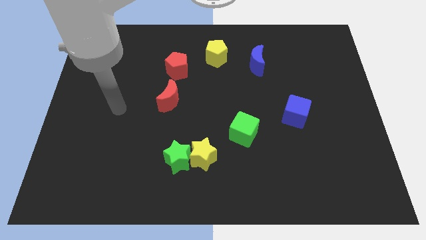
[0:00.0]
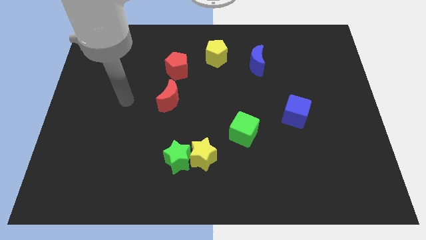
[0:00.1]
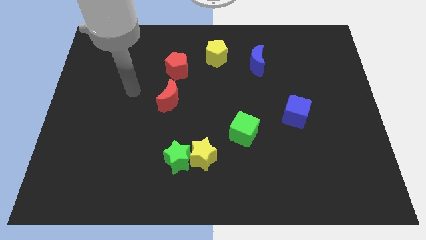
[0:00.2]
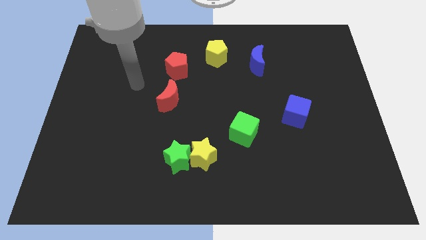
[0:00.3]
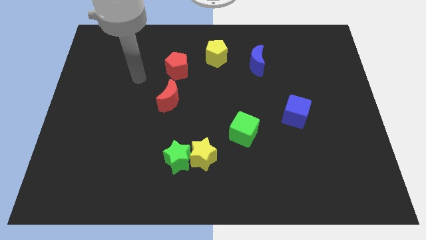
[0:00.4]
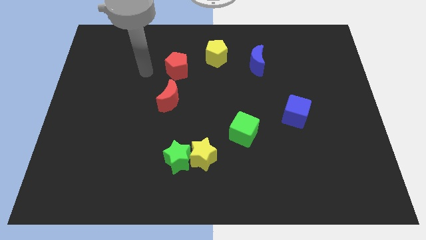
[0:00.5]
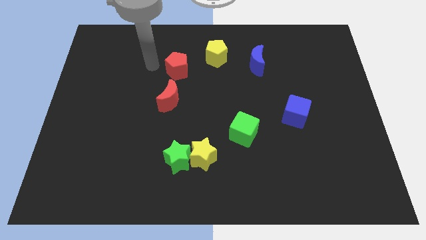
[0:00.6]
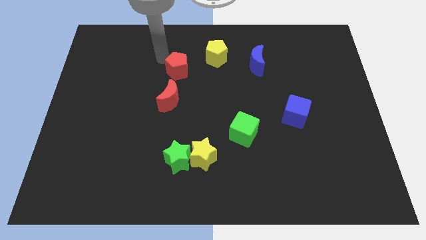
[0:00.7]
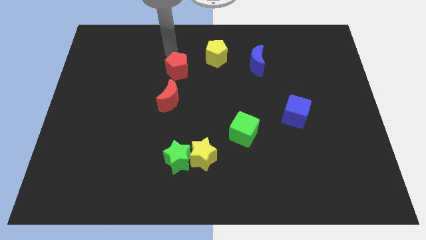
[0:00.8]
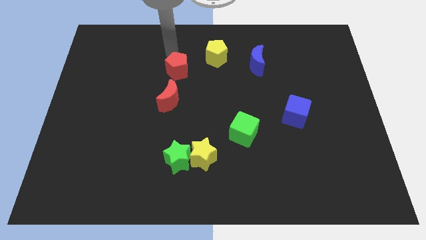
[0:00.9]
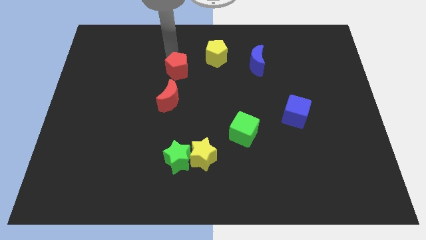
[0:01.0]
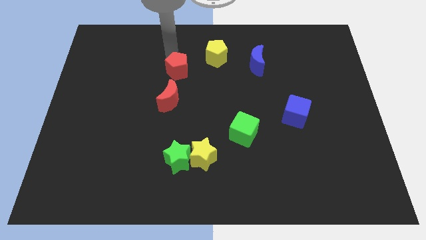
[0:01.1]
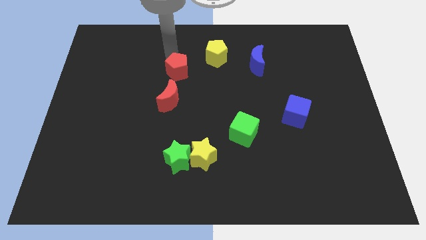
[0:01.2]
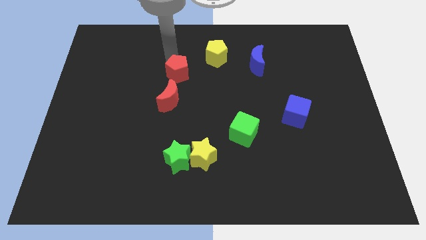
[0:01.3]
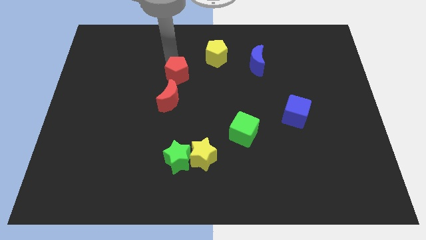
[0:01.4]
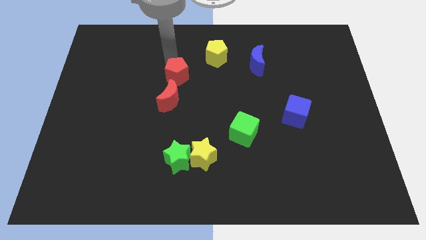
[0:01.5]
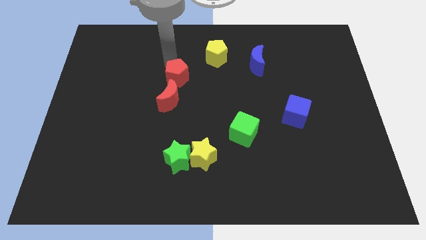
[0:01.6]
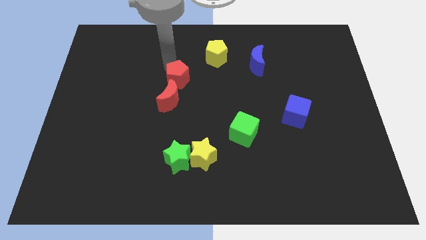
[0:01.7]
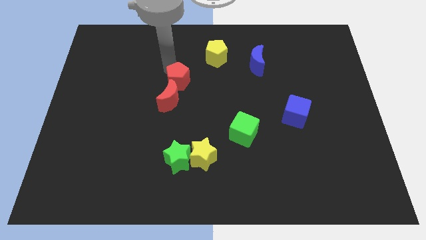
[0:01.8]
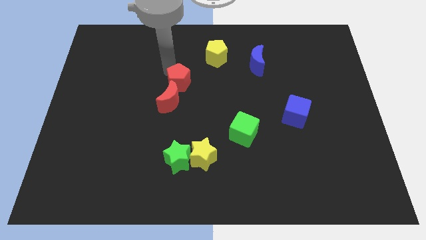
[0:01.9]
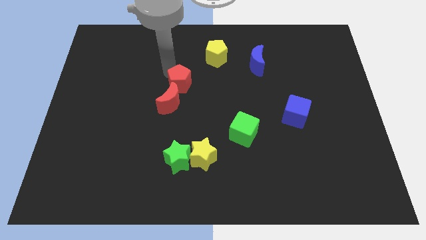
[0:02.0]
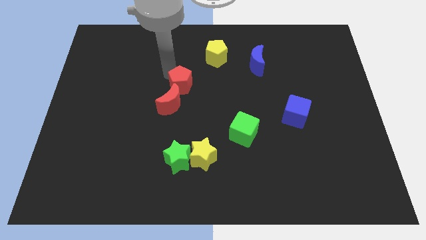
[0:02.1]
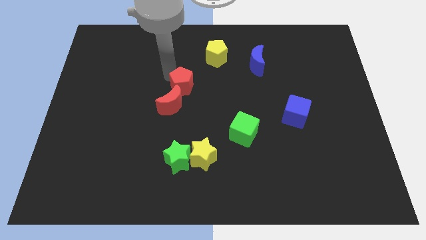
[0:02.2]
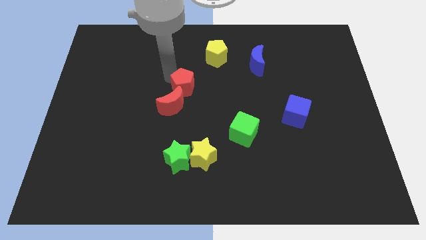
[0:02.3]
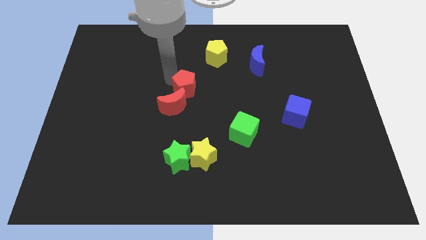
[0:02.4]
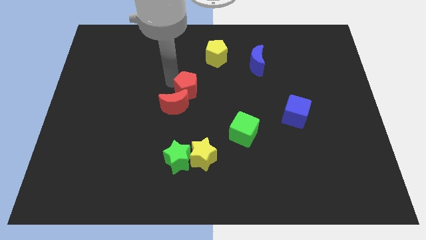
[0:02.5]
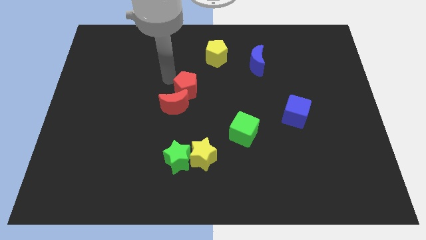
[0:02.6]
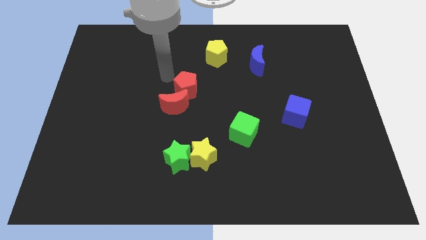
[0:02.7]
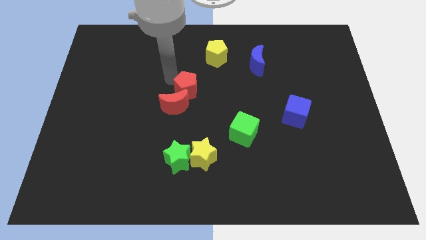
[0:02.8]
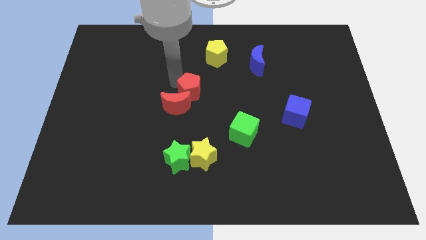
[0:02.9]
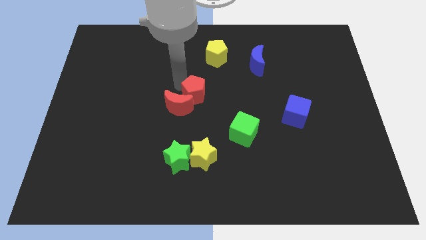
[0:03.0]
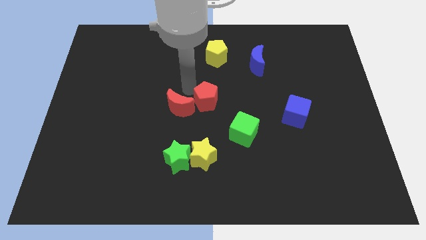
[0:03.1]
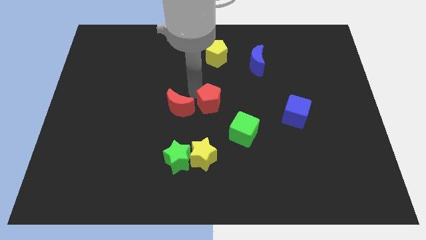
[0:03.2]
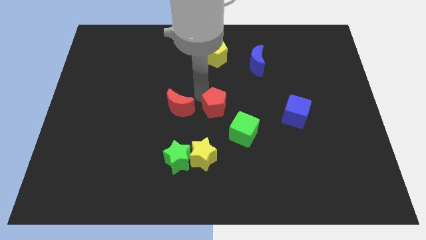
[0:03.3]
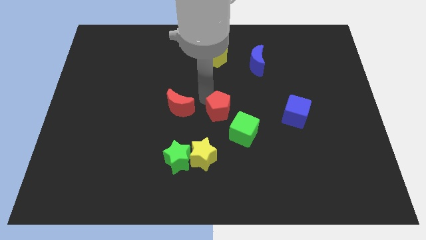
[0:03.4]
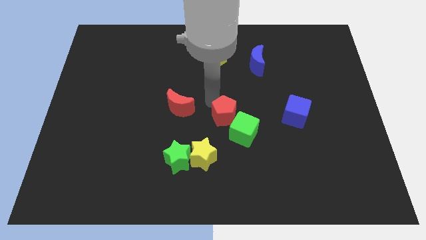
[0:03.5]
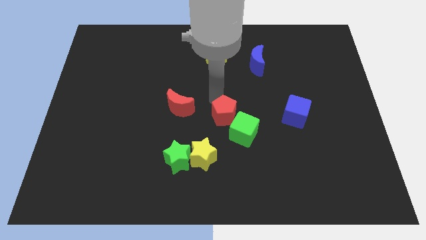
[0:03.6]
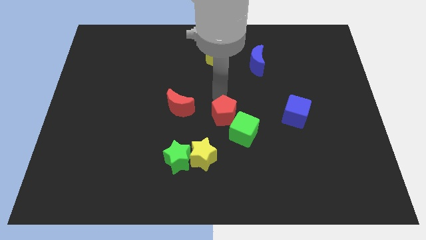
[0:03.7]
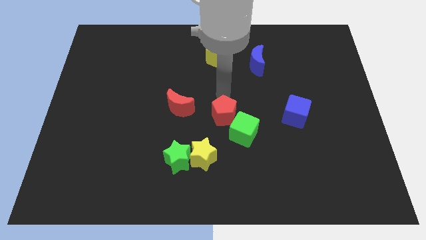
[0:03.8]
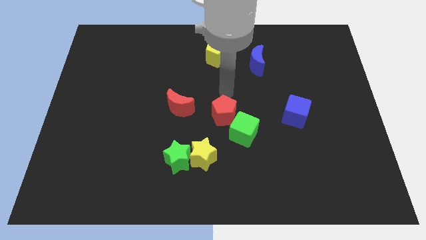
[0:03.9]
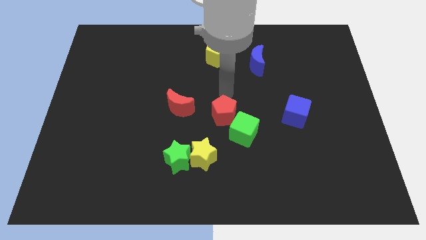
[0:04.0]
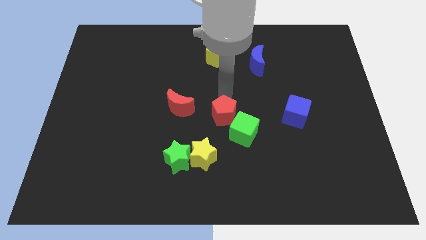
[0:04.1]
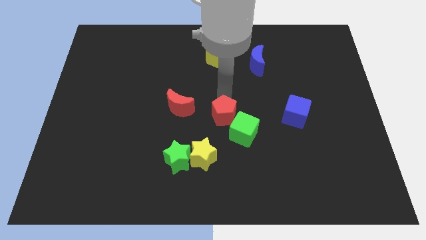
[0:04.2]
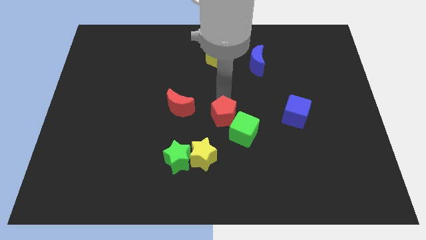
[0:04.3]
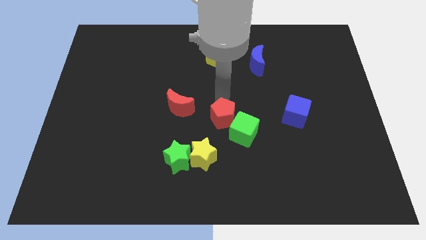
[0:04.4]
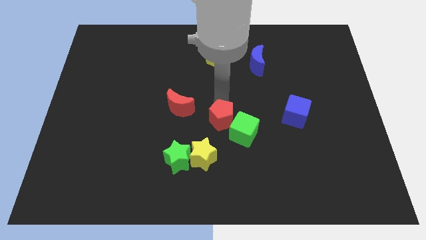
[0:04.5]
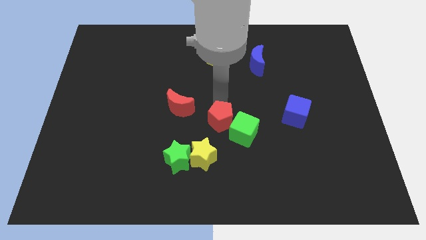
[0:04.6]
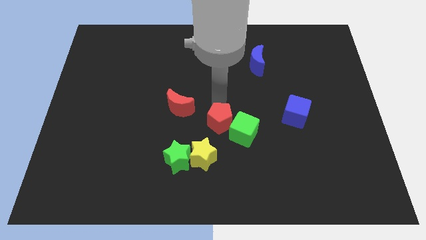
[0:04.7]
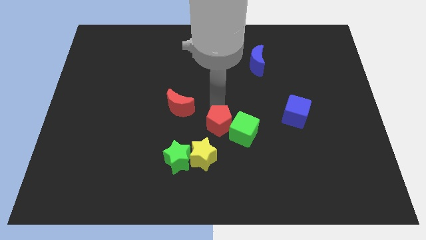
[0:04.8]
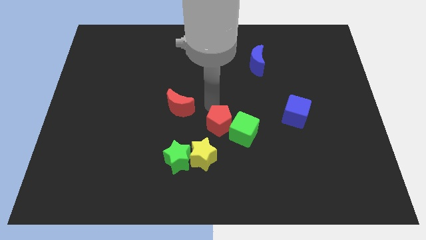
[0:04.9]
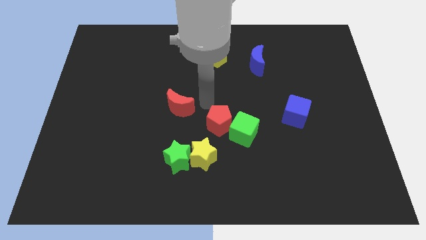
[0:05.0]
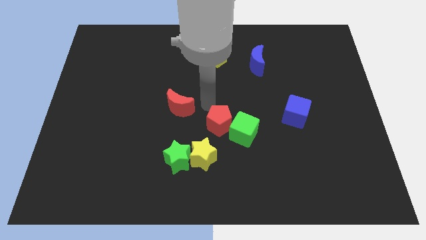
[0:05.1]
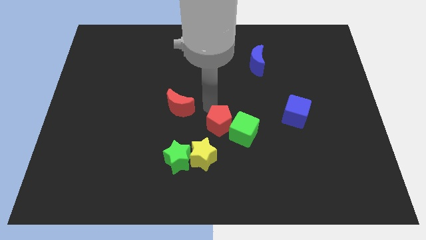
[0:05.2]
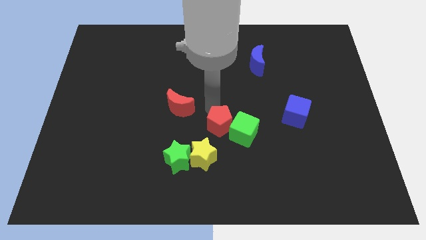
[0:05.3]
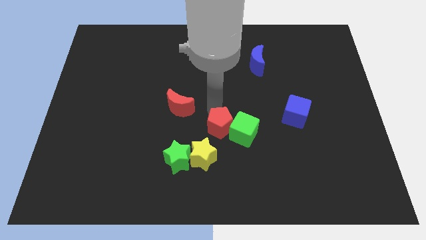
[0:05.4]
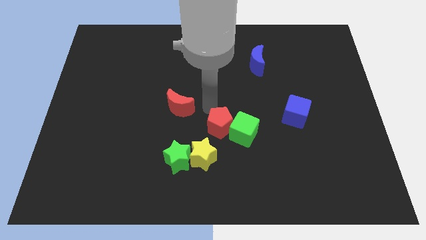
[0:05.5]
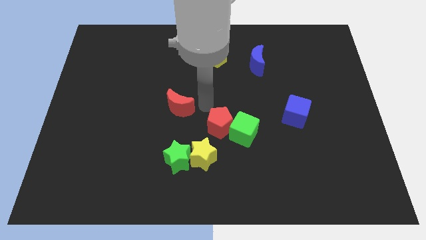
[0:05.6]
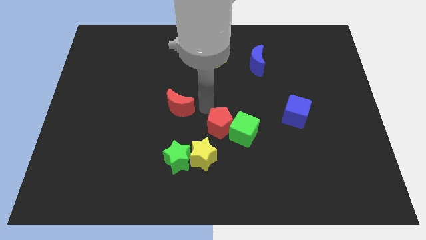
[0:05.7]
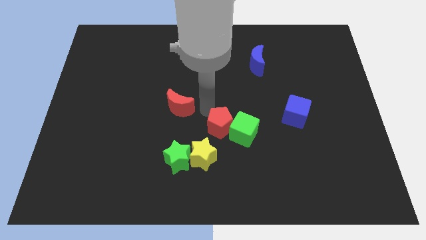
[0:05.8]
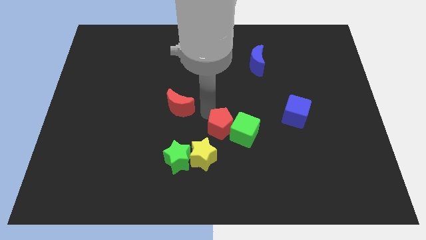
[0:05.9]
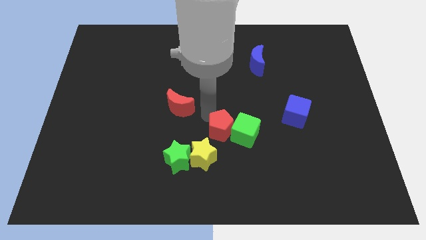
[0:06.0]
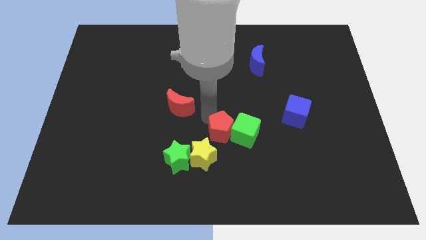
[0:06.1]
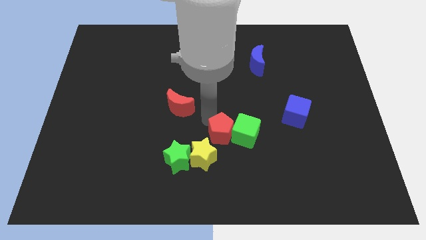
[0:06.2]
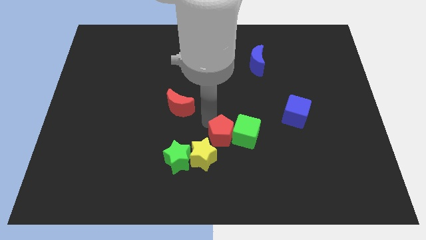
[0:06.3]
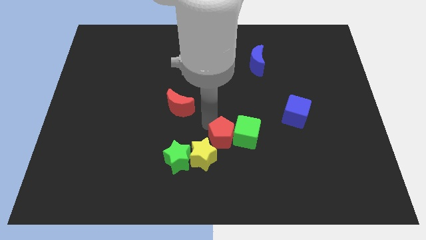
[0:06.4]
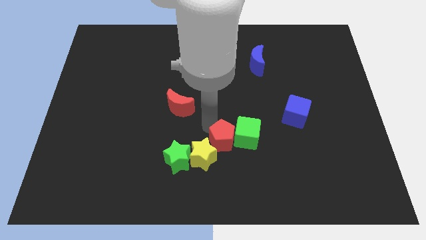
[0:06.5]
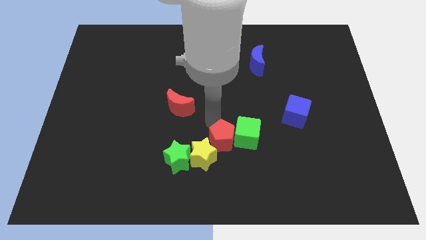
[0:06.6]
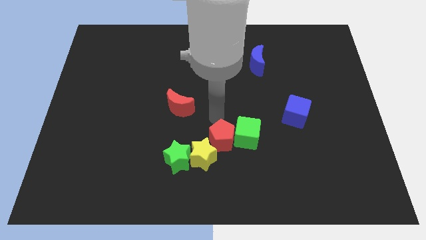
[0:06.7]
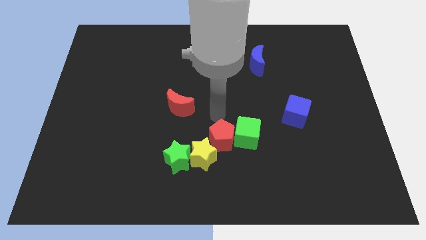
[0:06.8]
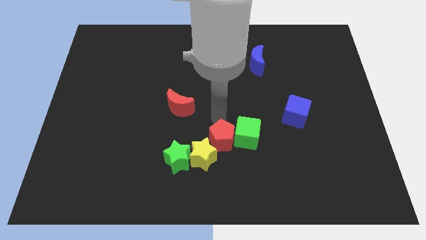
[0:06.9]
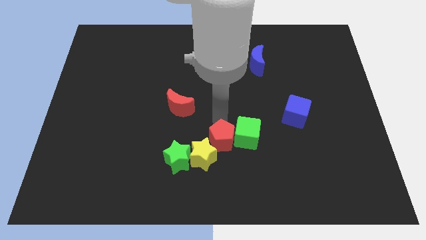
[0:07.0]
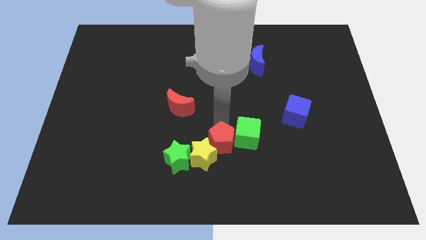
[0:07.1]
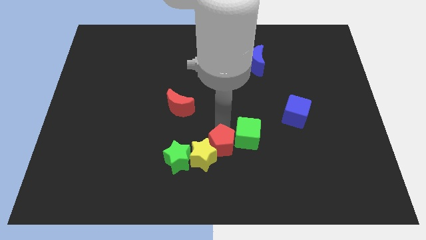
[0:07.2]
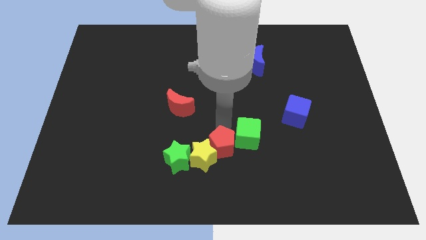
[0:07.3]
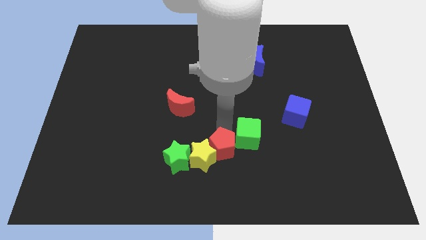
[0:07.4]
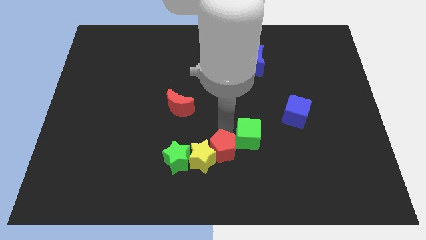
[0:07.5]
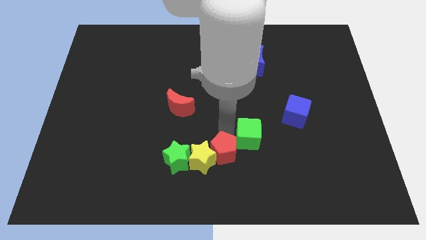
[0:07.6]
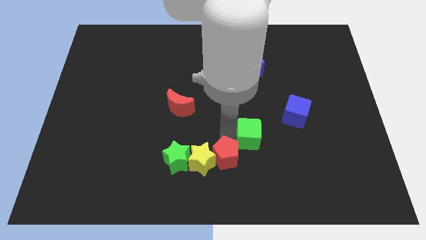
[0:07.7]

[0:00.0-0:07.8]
slide the red pentagon to the bottom
